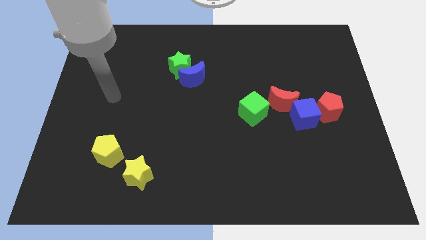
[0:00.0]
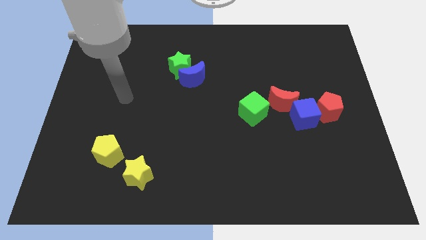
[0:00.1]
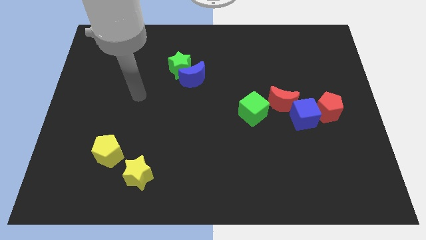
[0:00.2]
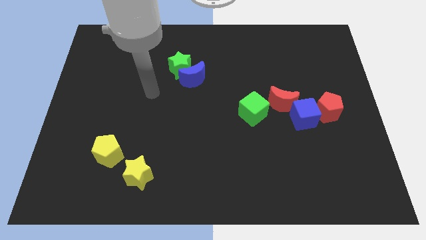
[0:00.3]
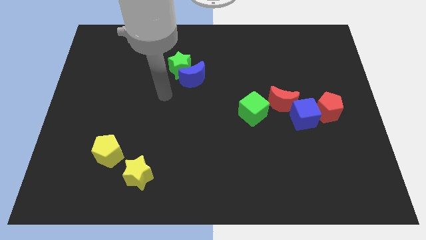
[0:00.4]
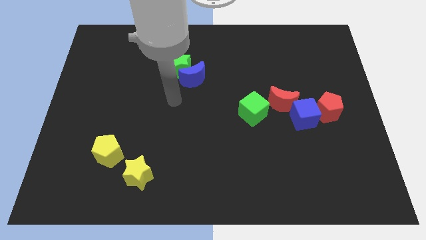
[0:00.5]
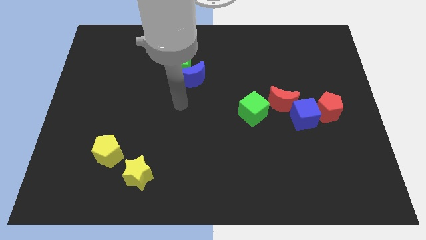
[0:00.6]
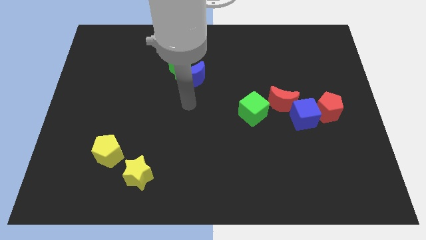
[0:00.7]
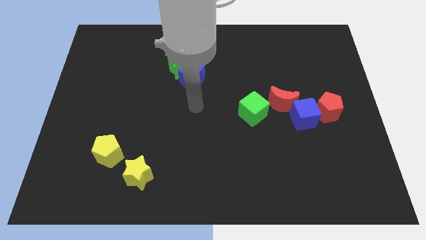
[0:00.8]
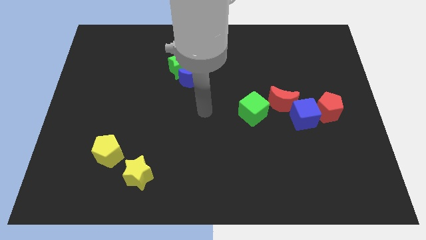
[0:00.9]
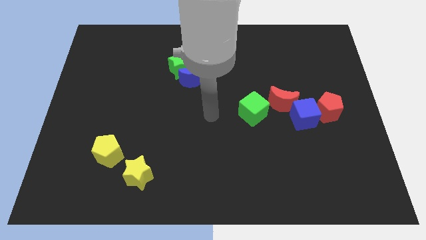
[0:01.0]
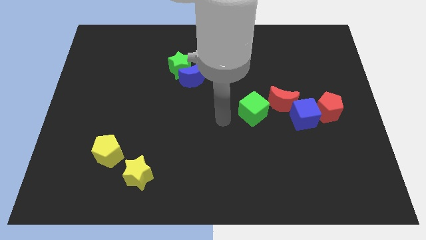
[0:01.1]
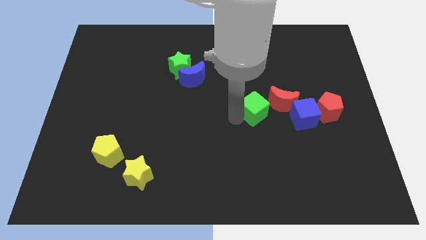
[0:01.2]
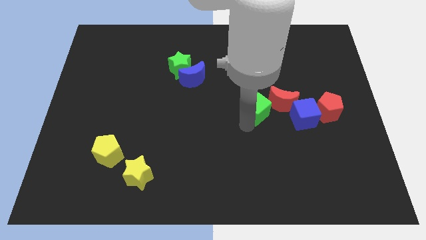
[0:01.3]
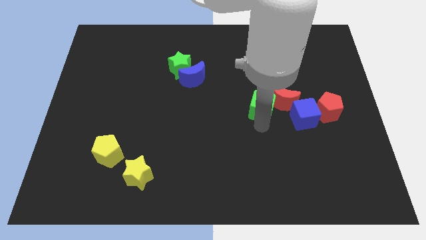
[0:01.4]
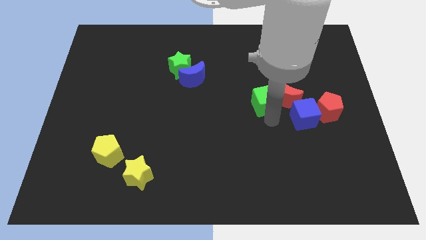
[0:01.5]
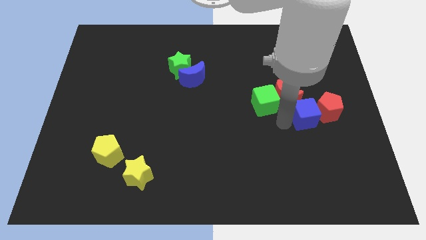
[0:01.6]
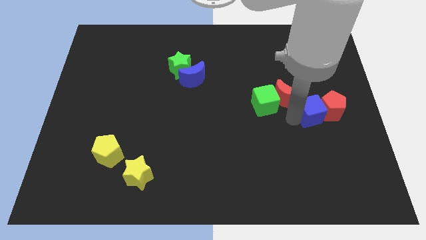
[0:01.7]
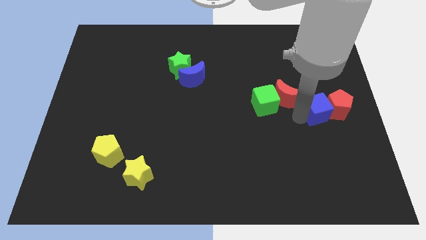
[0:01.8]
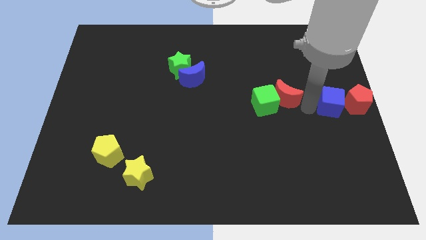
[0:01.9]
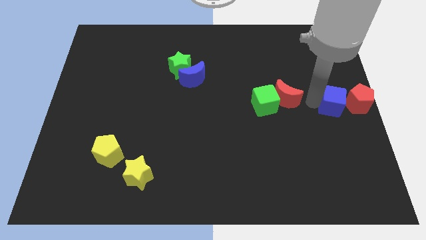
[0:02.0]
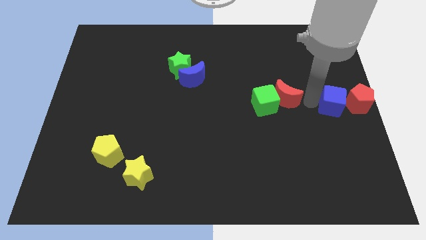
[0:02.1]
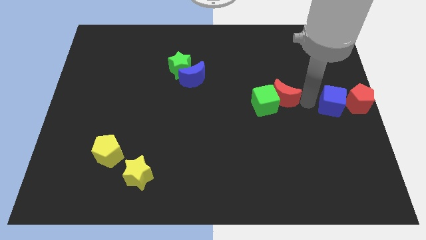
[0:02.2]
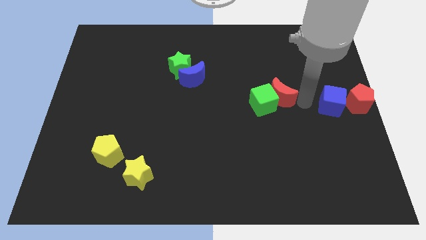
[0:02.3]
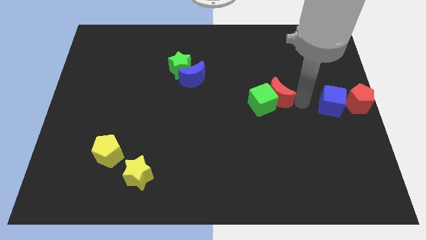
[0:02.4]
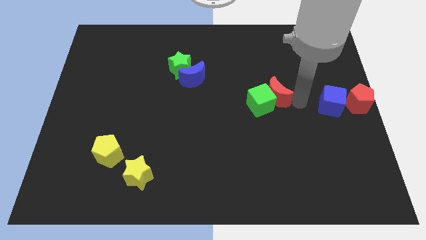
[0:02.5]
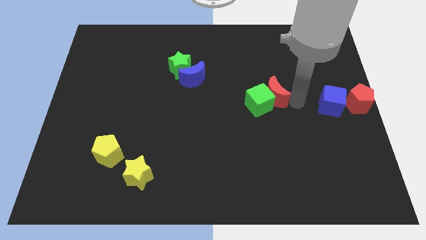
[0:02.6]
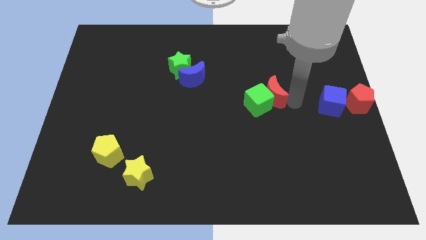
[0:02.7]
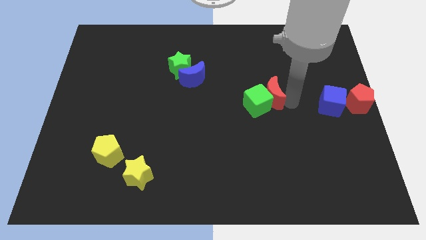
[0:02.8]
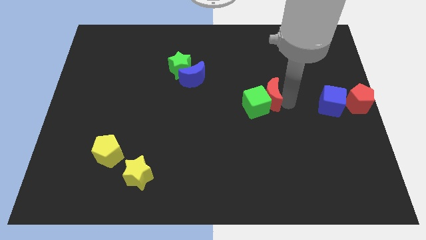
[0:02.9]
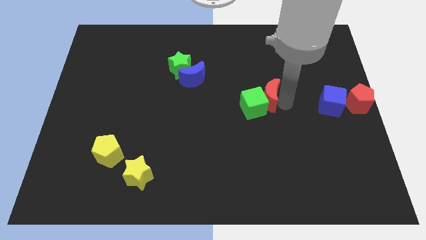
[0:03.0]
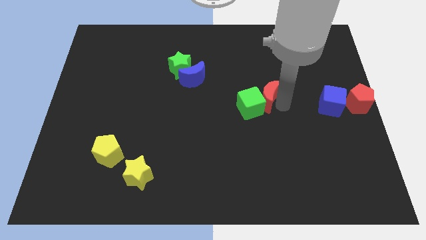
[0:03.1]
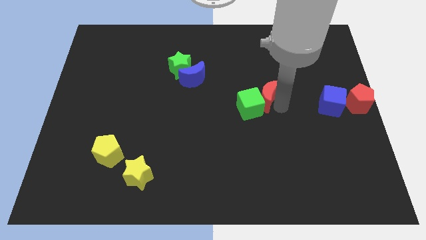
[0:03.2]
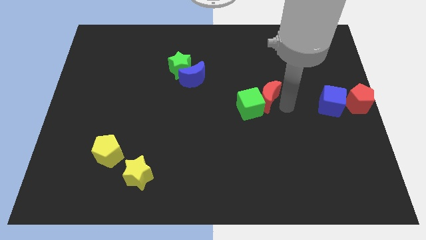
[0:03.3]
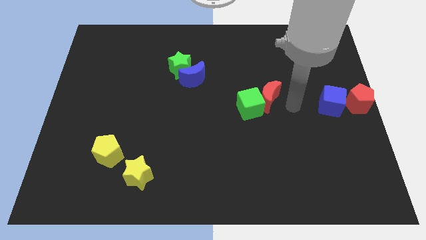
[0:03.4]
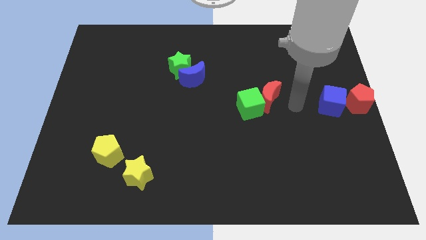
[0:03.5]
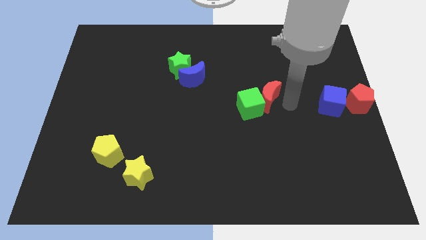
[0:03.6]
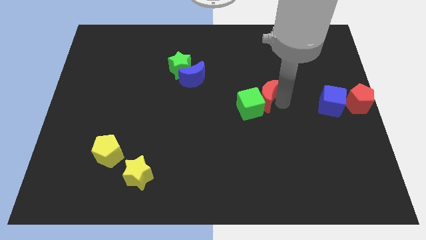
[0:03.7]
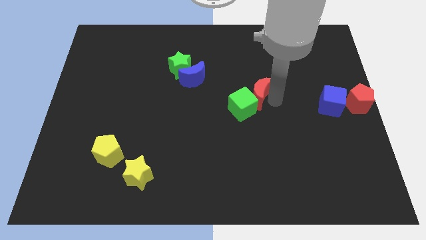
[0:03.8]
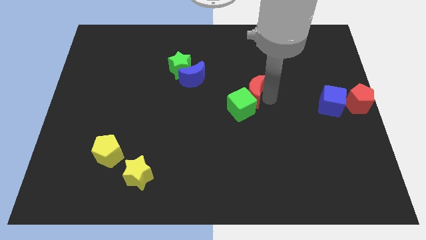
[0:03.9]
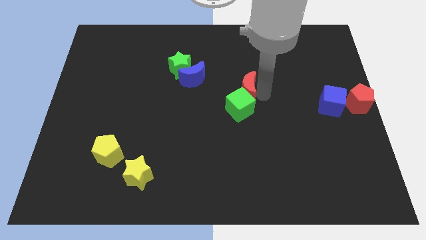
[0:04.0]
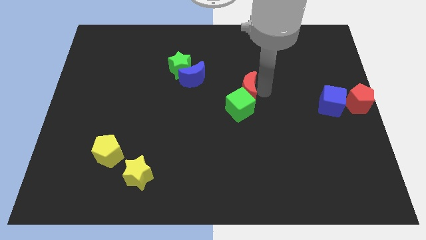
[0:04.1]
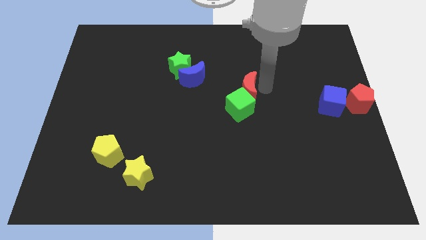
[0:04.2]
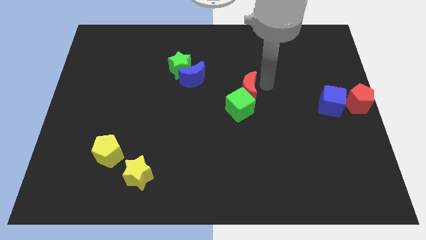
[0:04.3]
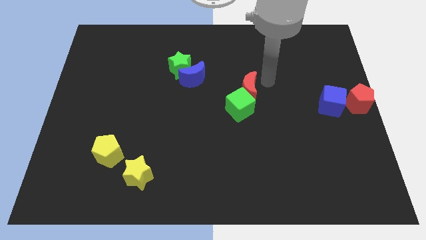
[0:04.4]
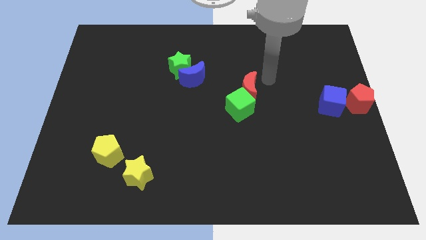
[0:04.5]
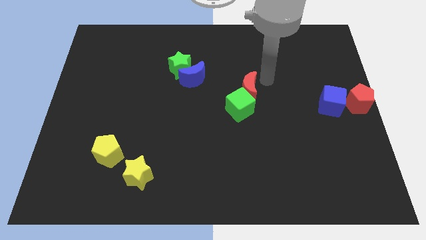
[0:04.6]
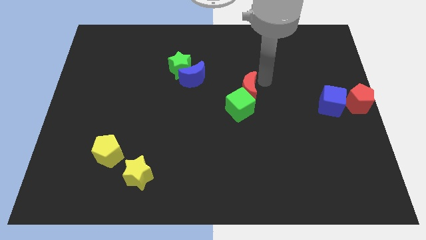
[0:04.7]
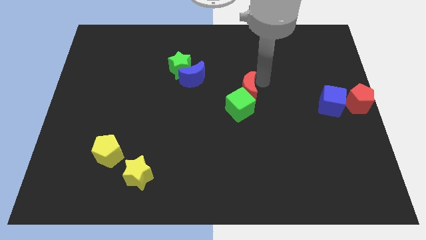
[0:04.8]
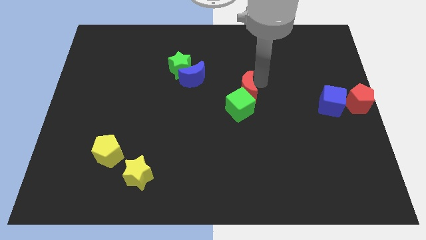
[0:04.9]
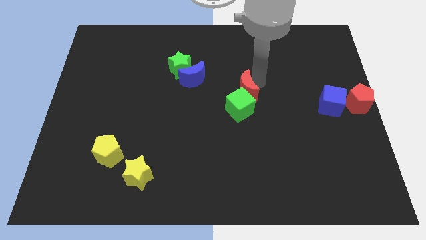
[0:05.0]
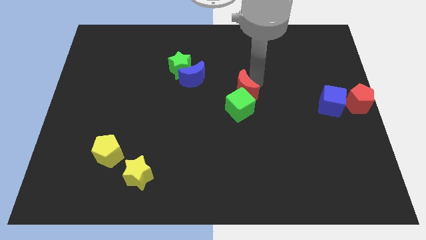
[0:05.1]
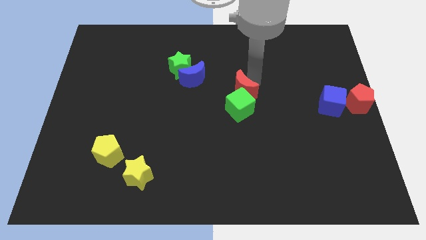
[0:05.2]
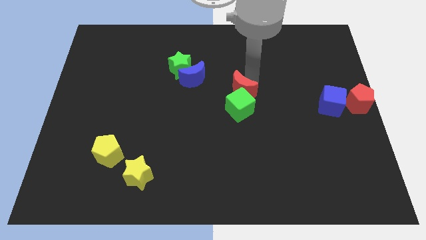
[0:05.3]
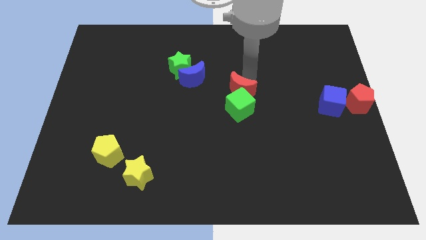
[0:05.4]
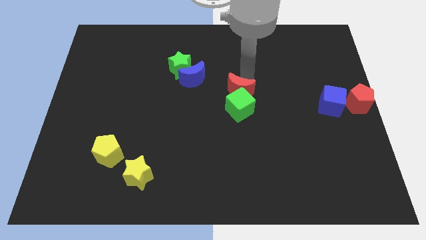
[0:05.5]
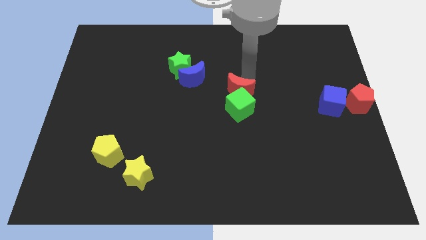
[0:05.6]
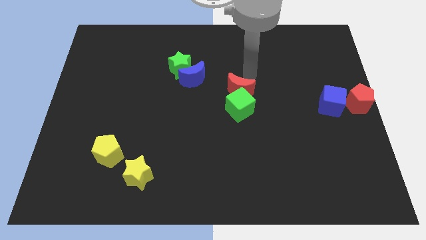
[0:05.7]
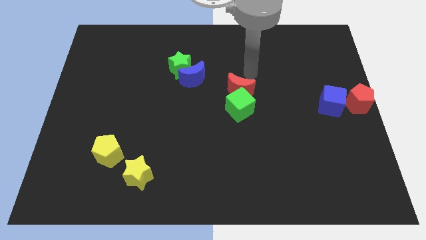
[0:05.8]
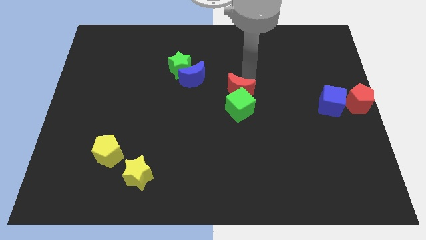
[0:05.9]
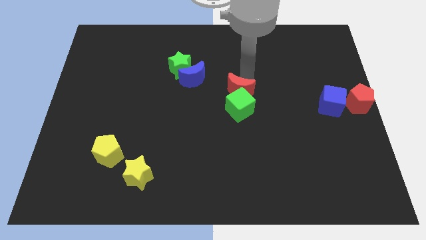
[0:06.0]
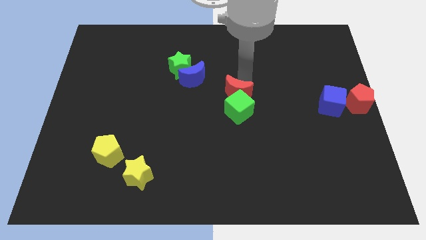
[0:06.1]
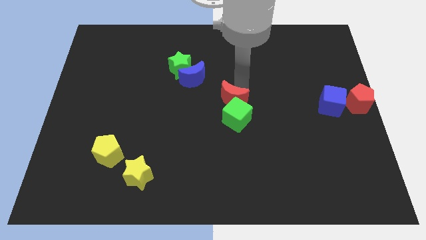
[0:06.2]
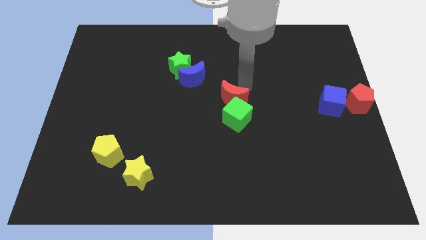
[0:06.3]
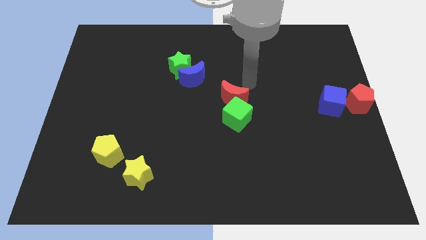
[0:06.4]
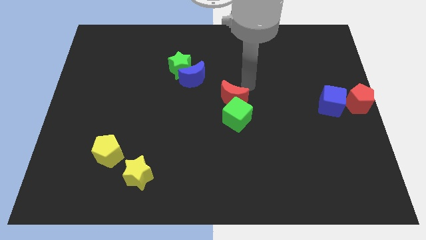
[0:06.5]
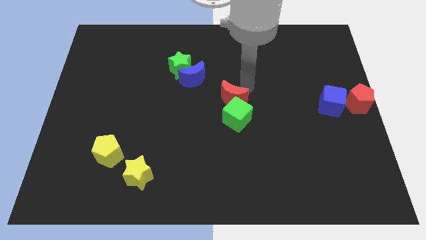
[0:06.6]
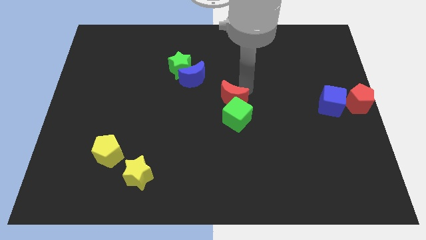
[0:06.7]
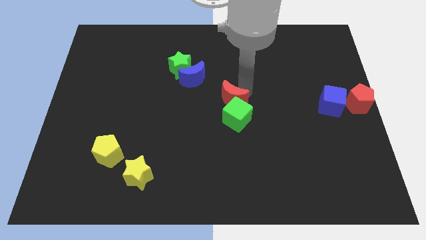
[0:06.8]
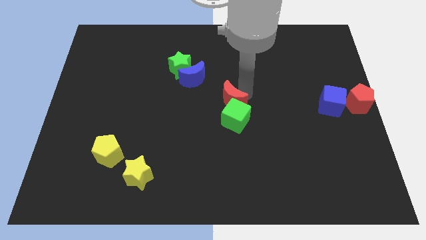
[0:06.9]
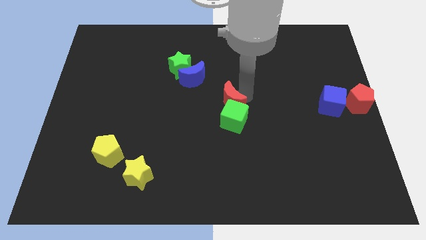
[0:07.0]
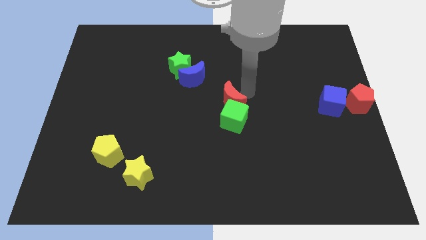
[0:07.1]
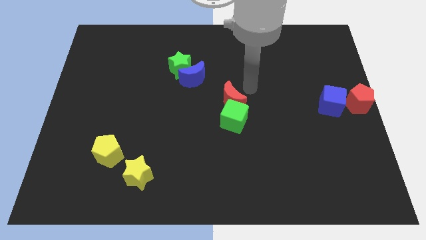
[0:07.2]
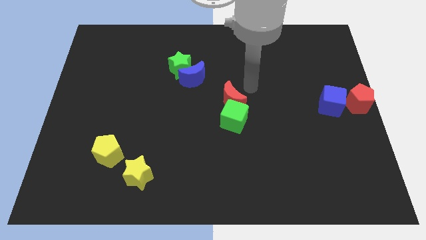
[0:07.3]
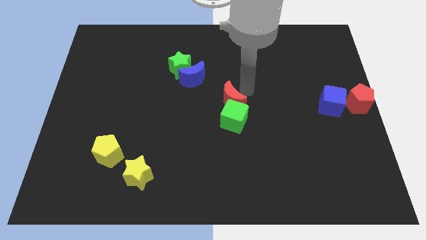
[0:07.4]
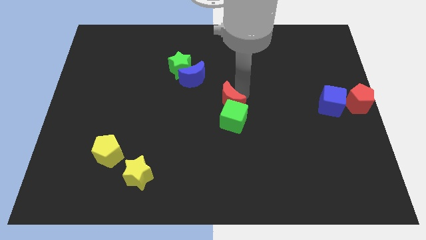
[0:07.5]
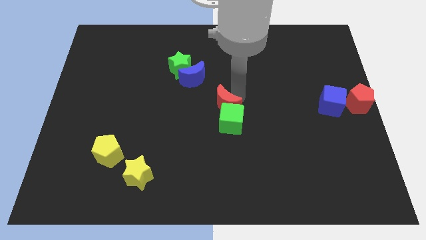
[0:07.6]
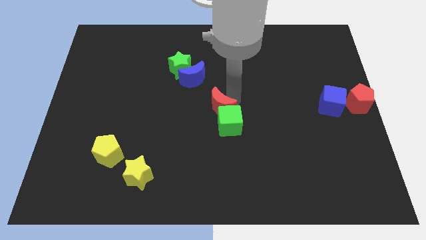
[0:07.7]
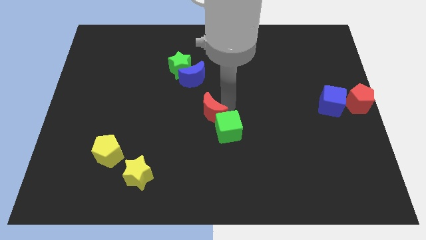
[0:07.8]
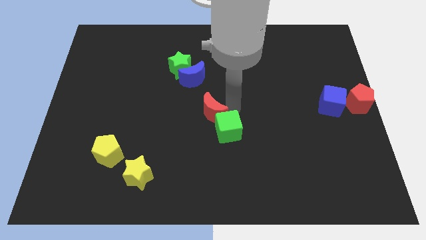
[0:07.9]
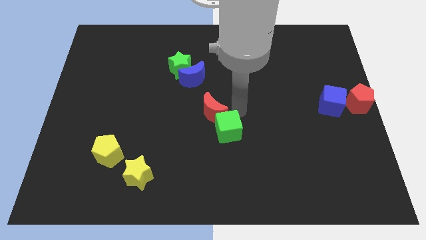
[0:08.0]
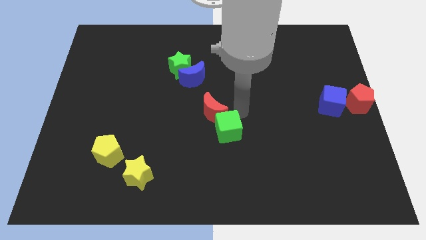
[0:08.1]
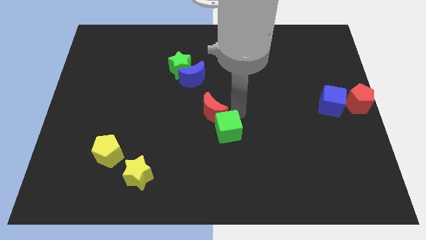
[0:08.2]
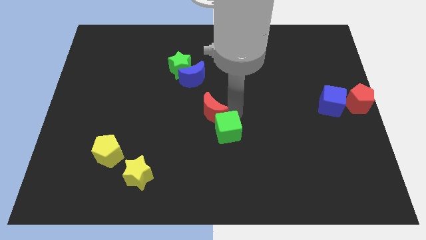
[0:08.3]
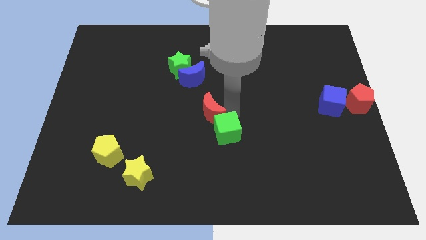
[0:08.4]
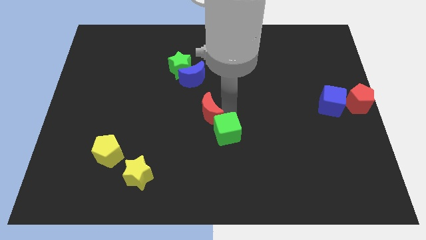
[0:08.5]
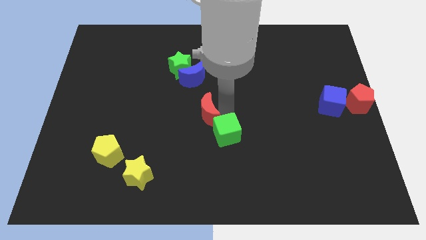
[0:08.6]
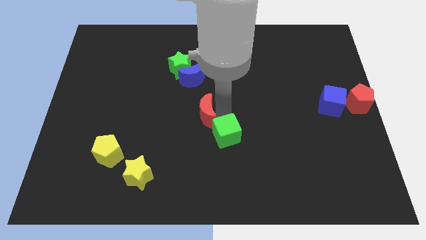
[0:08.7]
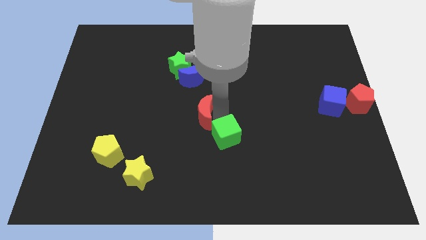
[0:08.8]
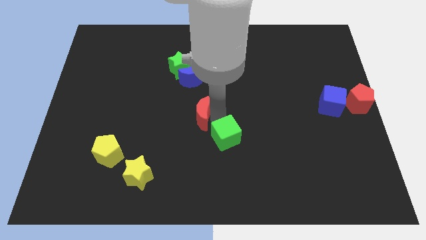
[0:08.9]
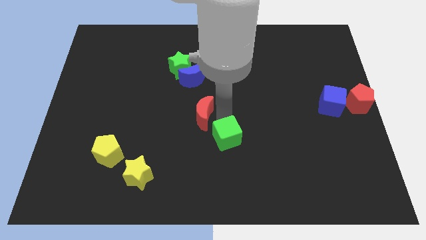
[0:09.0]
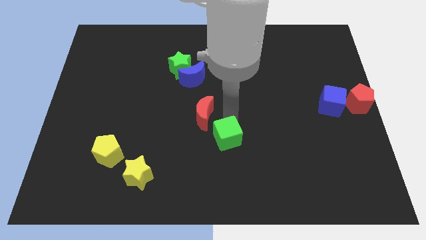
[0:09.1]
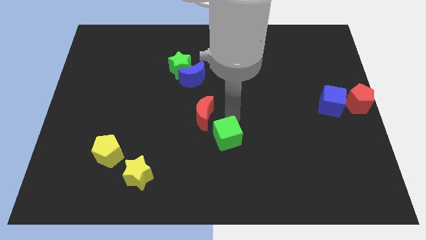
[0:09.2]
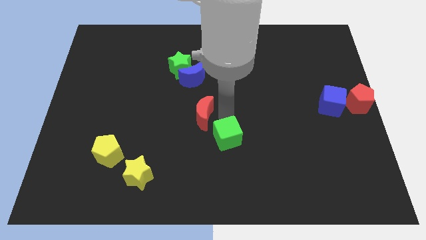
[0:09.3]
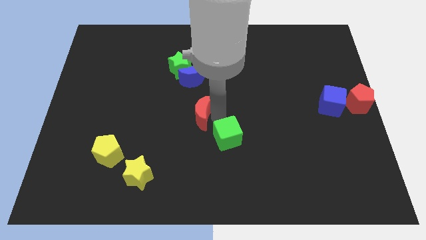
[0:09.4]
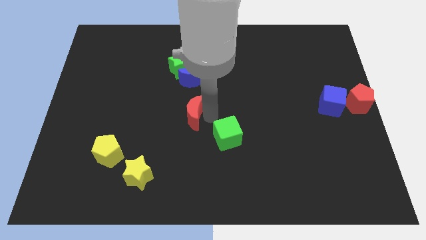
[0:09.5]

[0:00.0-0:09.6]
push the red moon left
